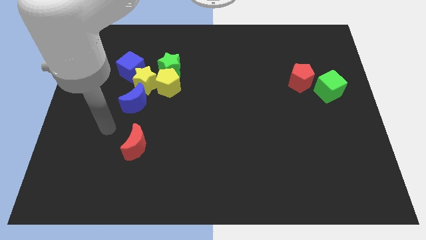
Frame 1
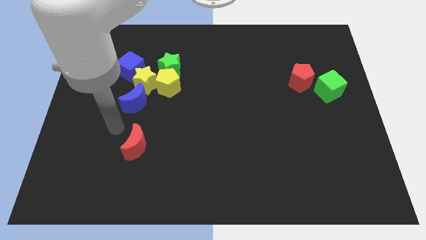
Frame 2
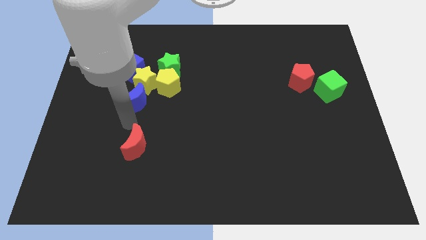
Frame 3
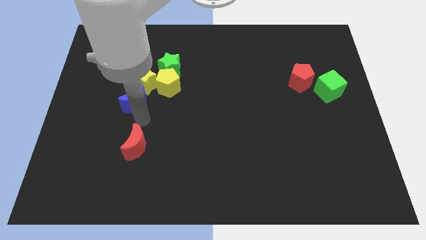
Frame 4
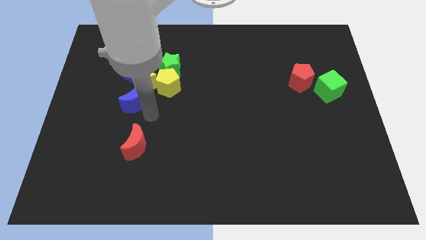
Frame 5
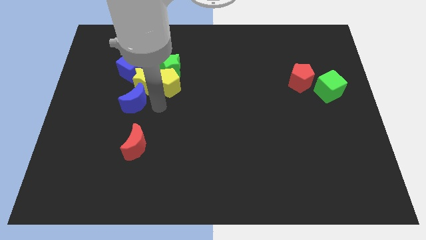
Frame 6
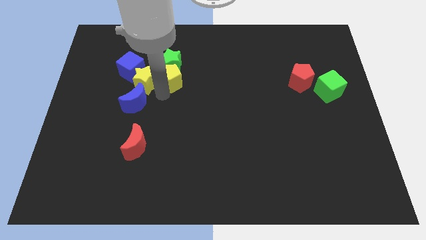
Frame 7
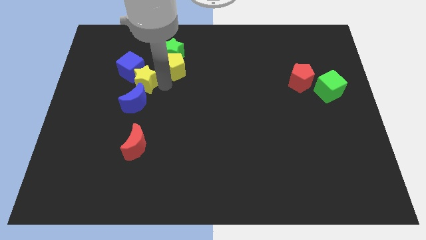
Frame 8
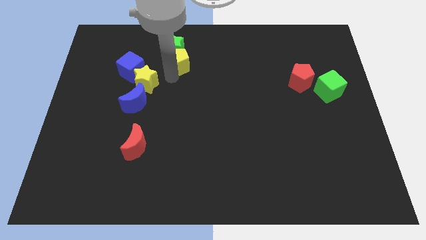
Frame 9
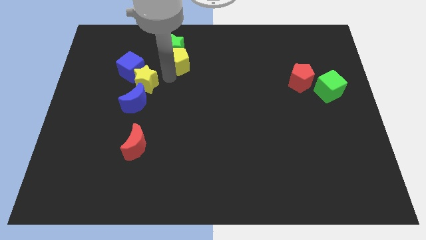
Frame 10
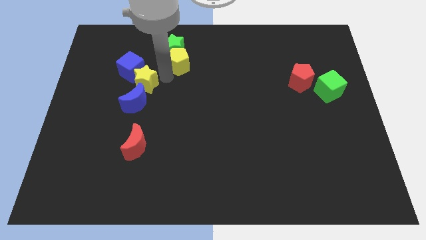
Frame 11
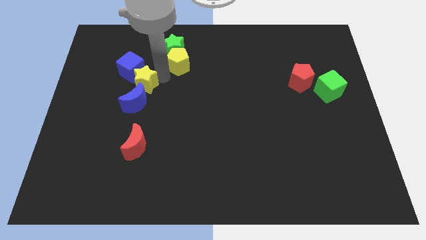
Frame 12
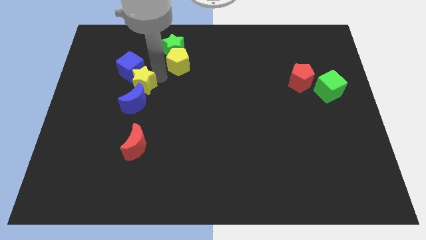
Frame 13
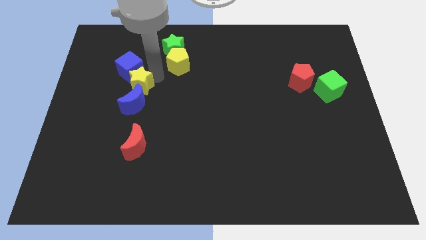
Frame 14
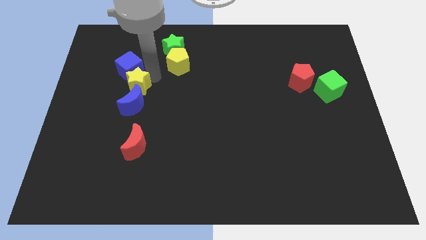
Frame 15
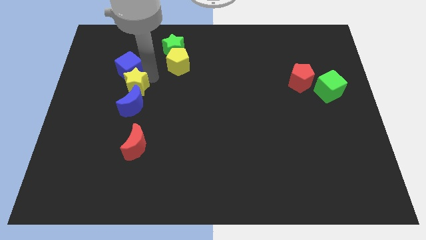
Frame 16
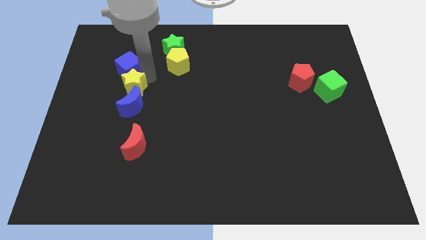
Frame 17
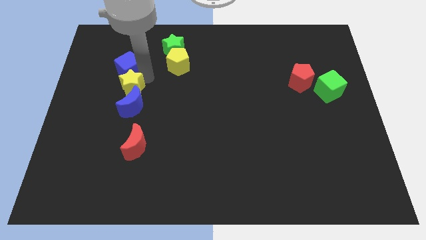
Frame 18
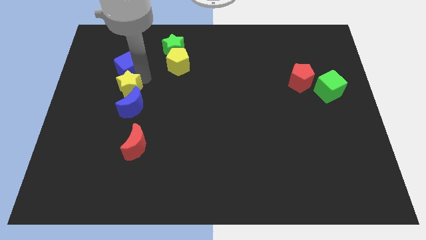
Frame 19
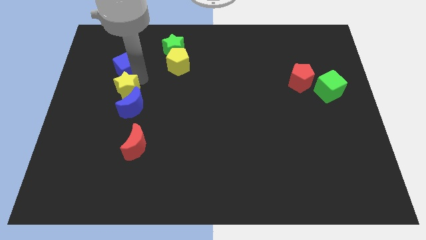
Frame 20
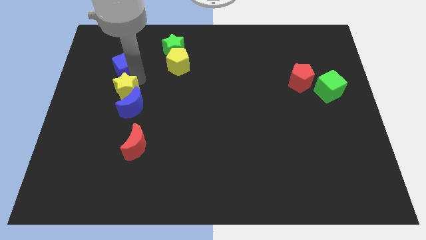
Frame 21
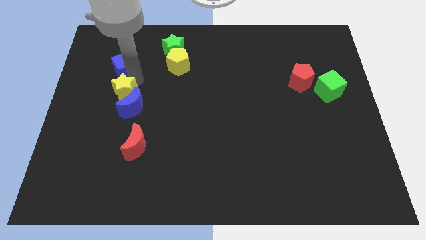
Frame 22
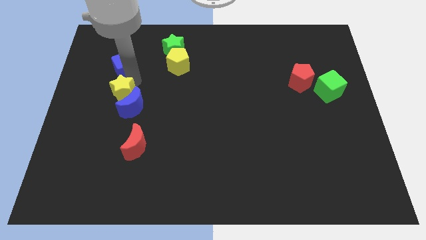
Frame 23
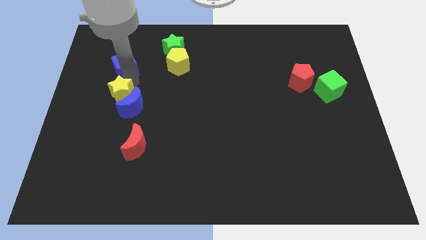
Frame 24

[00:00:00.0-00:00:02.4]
separate the yellow star from the group

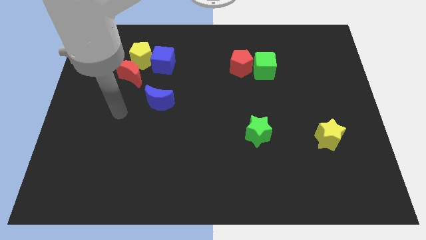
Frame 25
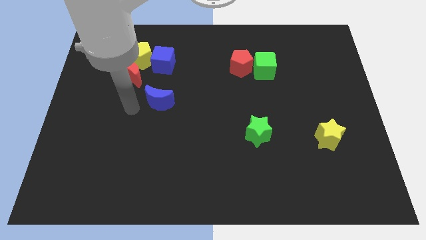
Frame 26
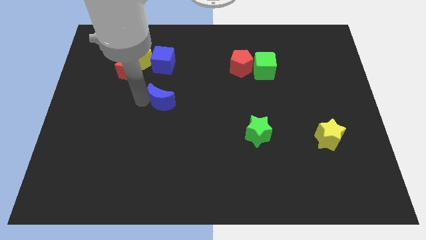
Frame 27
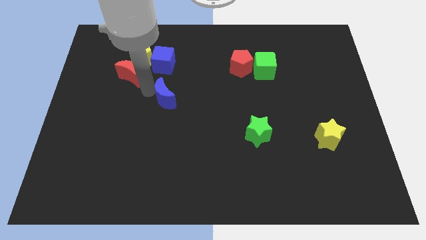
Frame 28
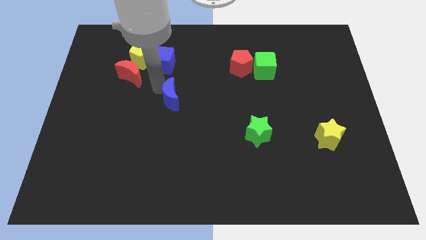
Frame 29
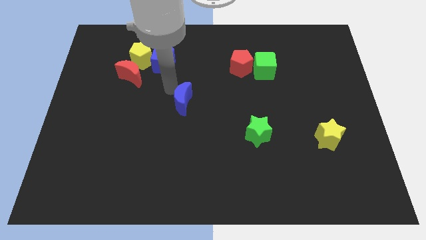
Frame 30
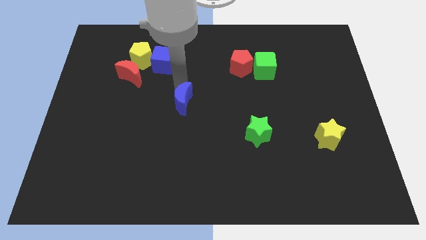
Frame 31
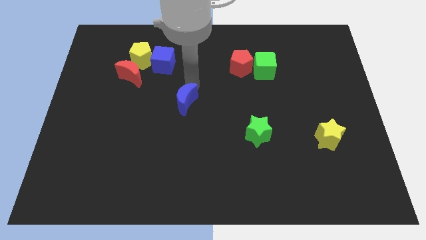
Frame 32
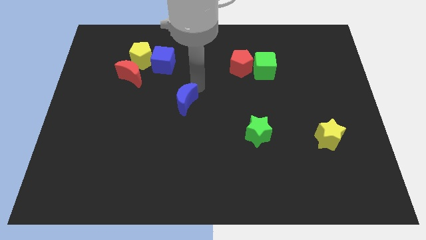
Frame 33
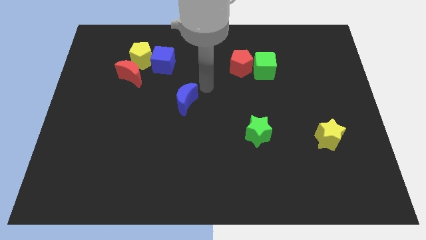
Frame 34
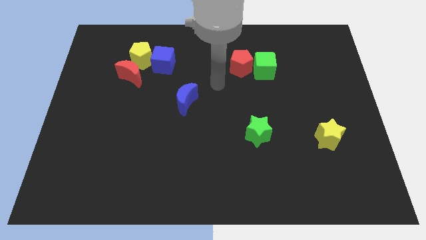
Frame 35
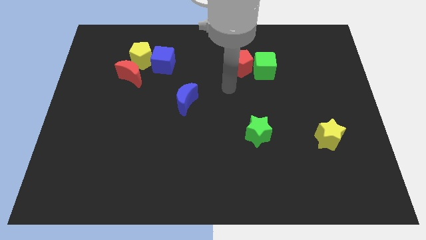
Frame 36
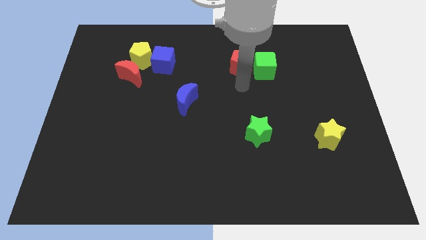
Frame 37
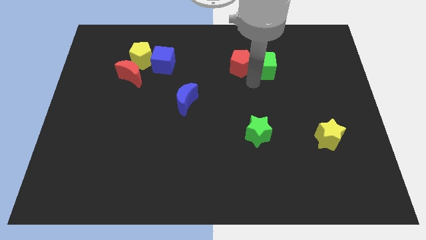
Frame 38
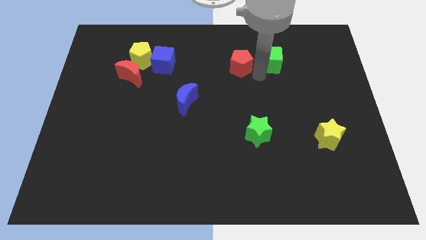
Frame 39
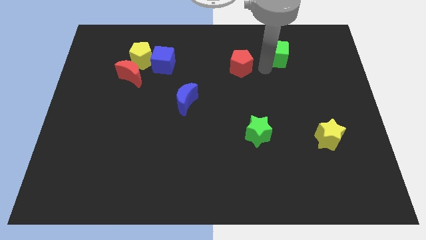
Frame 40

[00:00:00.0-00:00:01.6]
move the red pentagon away from the green cube

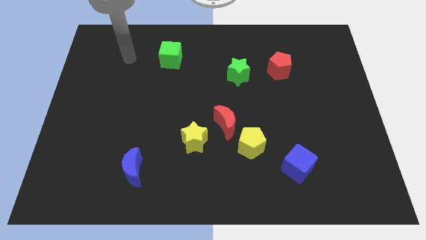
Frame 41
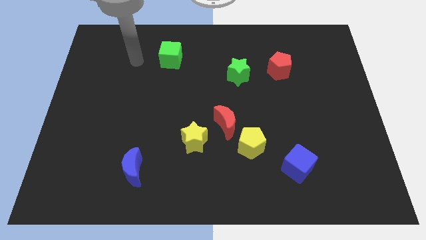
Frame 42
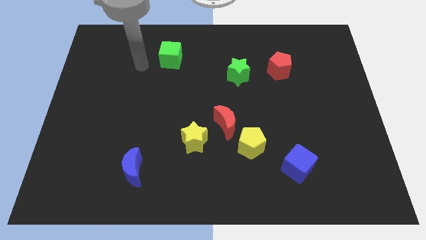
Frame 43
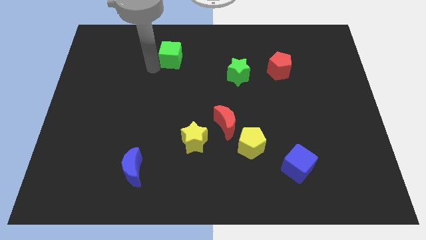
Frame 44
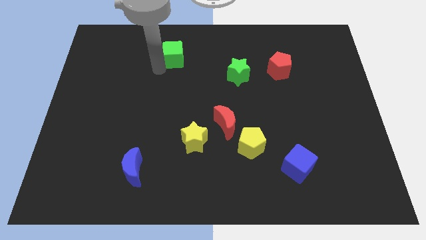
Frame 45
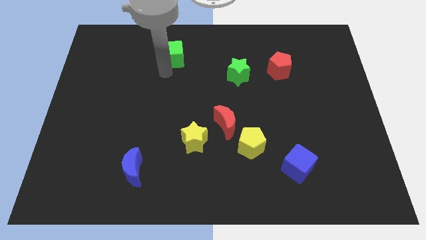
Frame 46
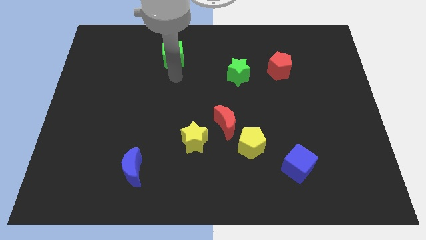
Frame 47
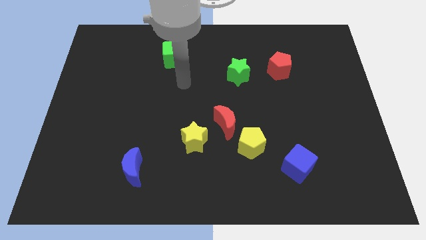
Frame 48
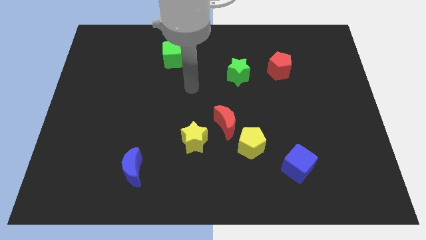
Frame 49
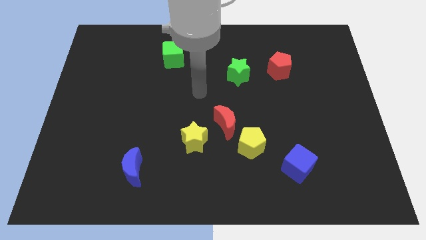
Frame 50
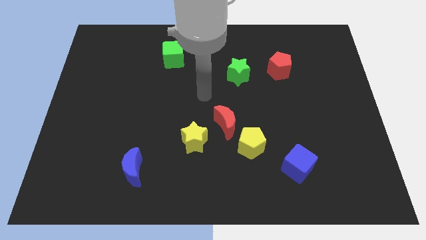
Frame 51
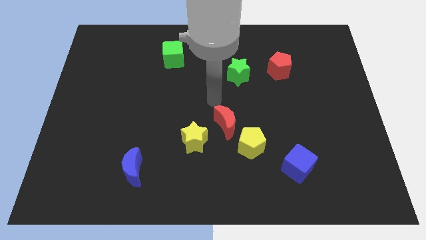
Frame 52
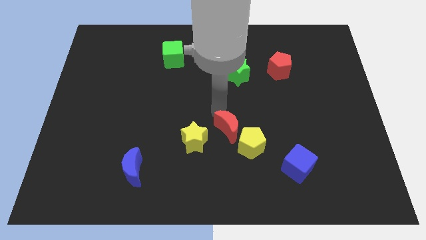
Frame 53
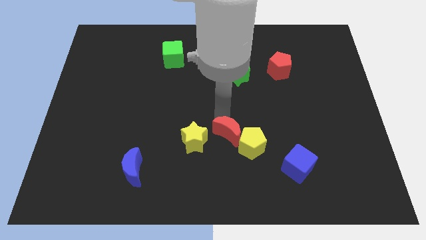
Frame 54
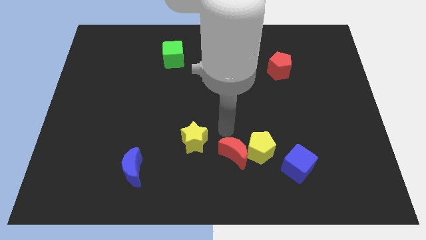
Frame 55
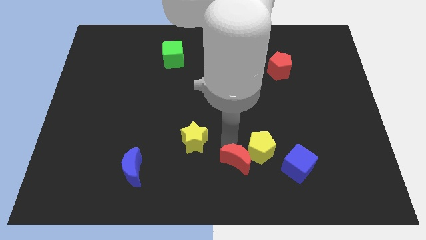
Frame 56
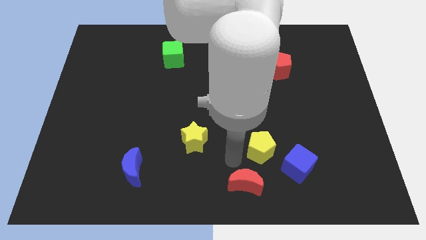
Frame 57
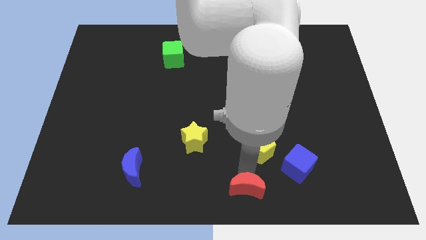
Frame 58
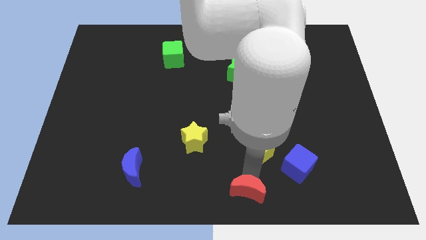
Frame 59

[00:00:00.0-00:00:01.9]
separate the yellow pentagon from the red moon

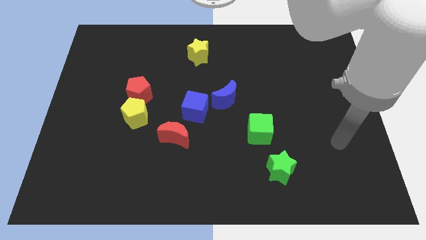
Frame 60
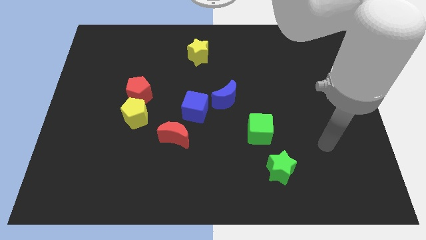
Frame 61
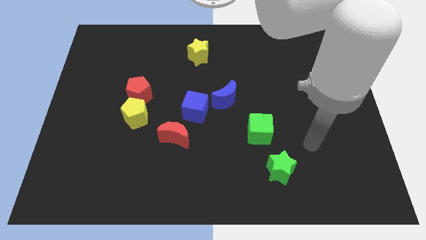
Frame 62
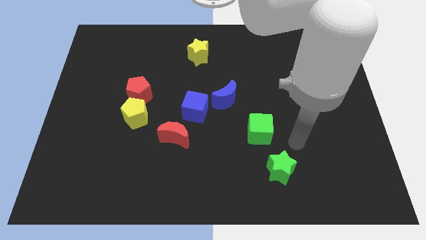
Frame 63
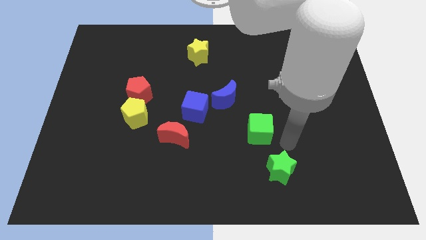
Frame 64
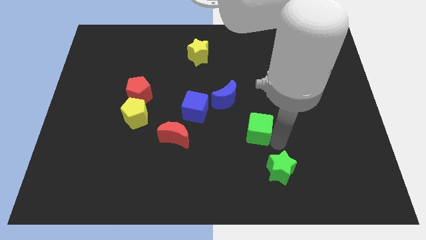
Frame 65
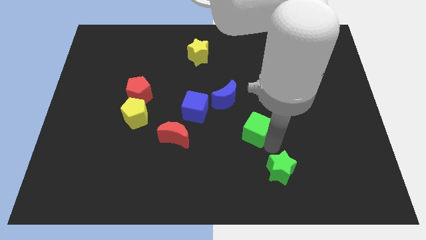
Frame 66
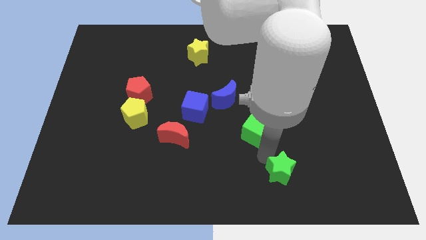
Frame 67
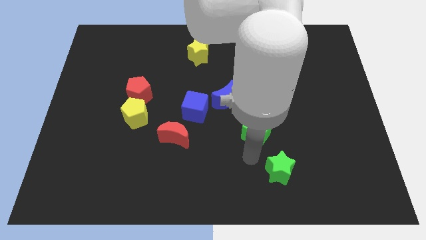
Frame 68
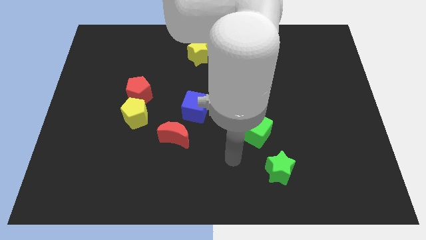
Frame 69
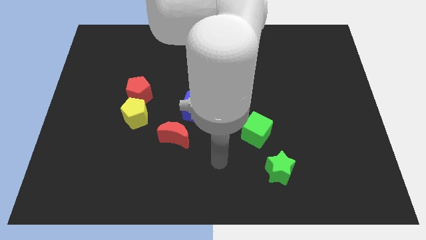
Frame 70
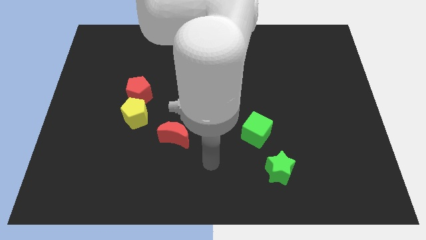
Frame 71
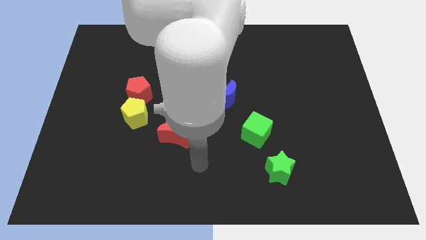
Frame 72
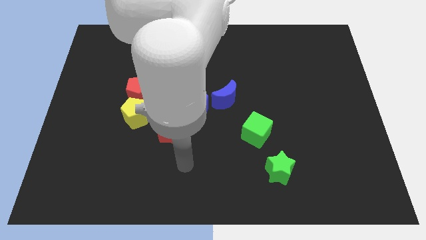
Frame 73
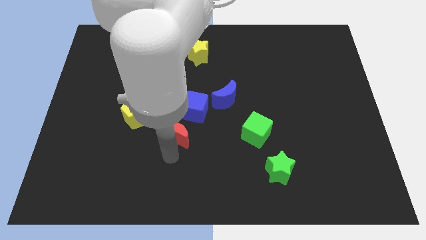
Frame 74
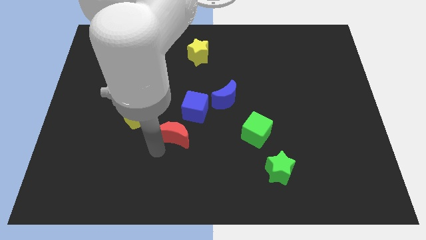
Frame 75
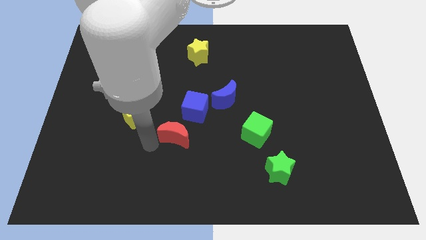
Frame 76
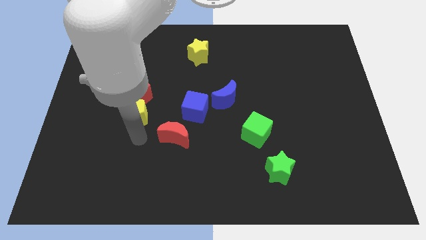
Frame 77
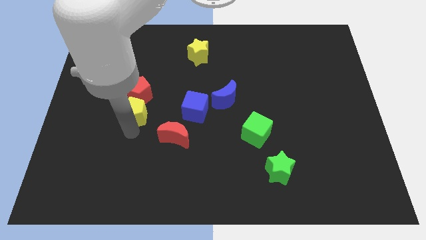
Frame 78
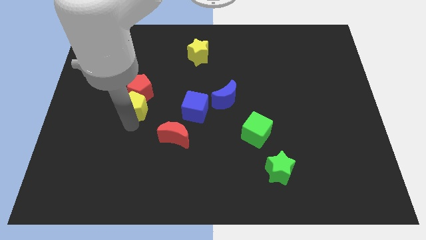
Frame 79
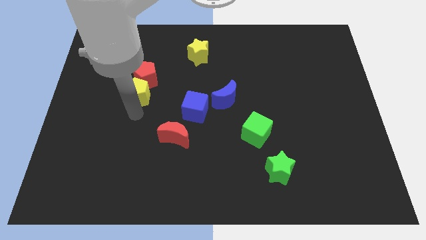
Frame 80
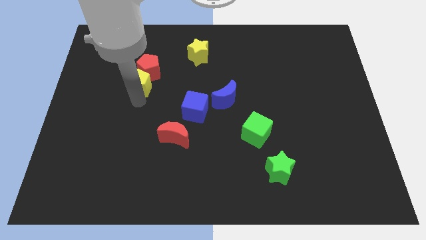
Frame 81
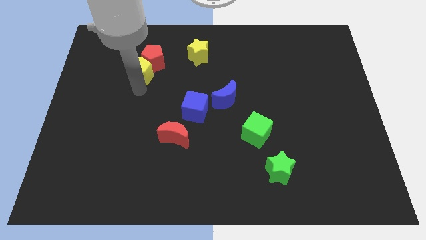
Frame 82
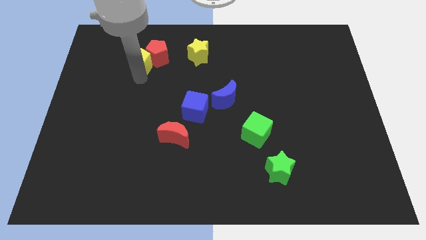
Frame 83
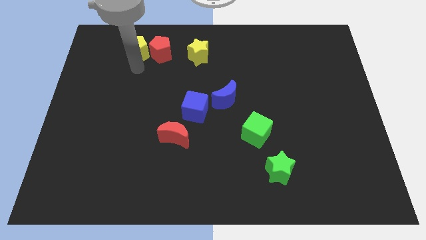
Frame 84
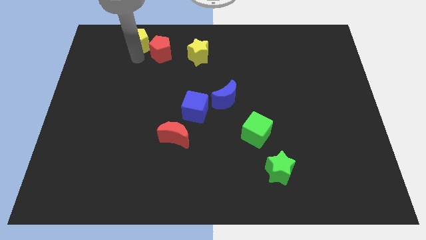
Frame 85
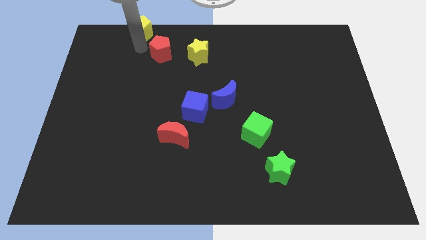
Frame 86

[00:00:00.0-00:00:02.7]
separate the red pentagon from the yellow pentagon

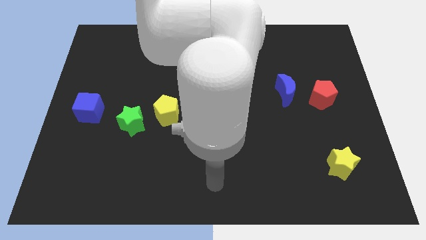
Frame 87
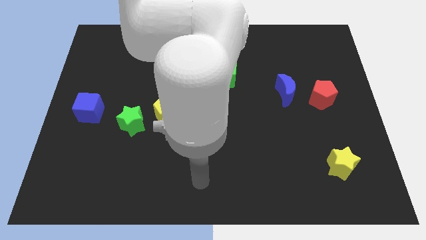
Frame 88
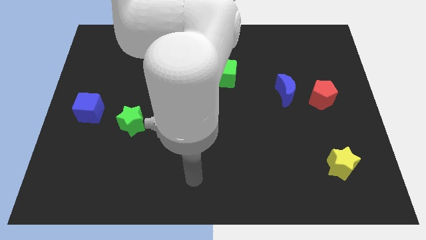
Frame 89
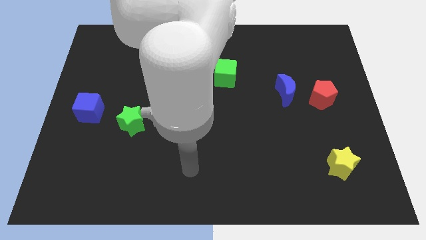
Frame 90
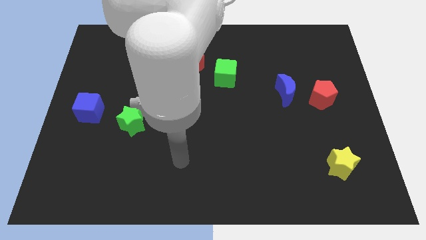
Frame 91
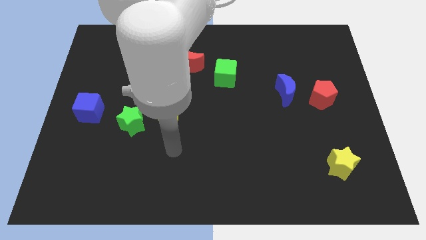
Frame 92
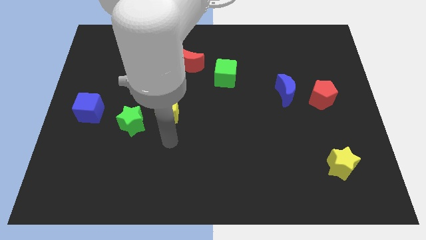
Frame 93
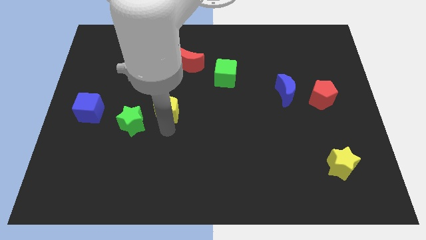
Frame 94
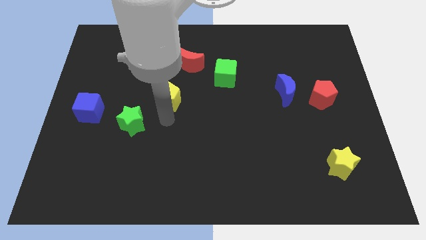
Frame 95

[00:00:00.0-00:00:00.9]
pull the green star apart from the yellow pentagon
